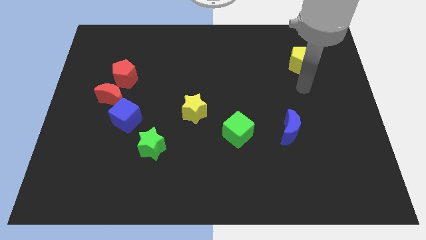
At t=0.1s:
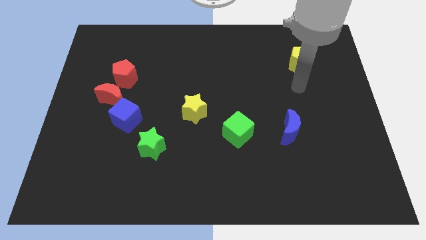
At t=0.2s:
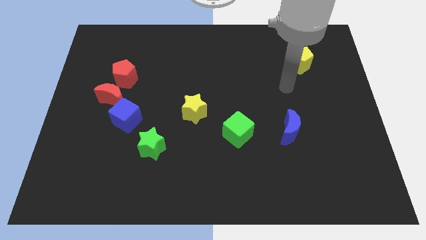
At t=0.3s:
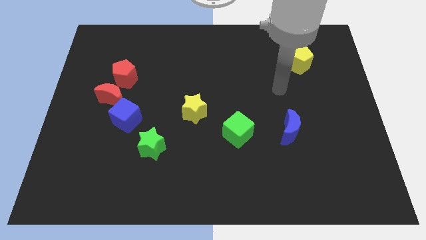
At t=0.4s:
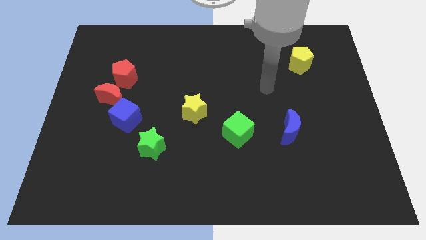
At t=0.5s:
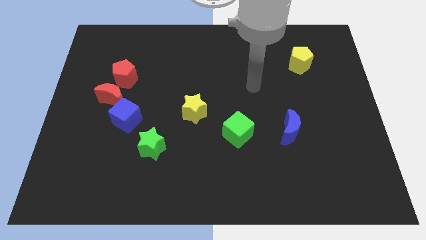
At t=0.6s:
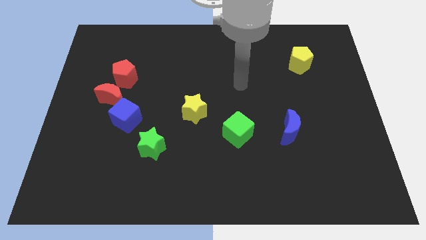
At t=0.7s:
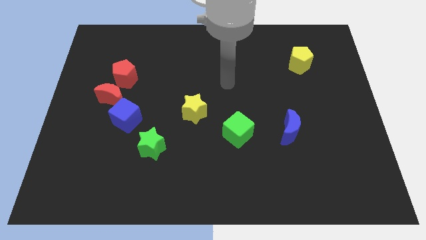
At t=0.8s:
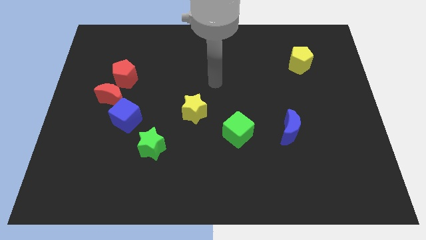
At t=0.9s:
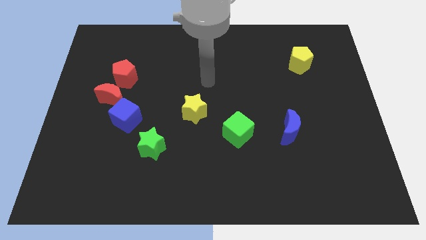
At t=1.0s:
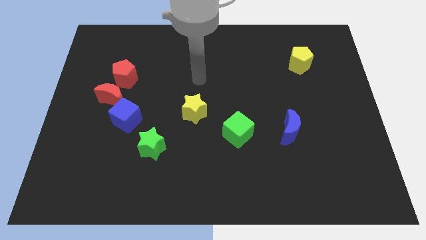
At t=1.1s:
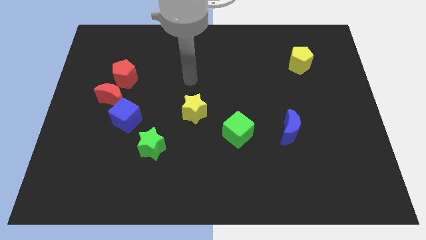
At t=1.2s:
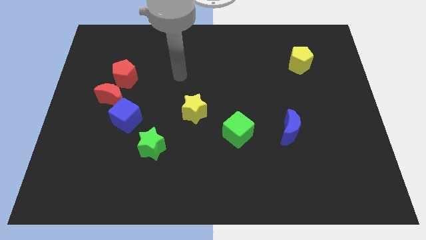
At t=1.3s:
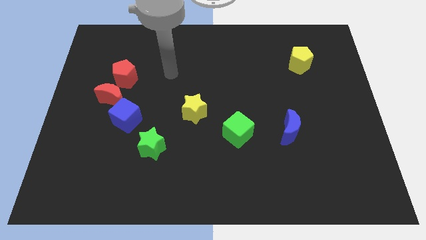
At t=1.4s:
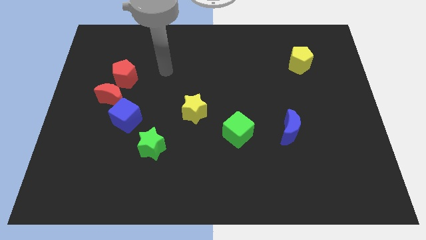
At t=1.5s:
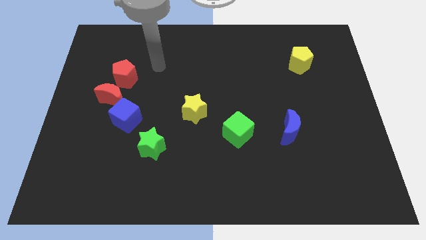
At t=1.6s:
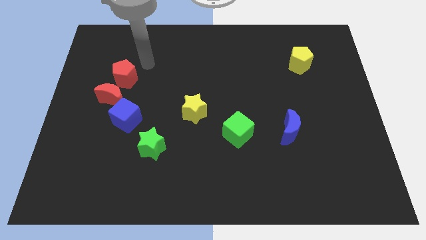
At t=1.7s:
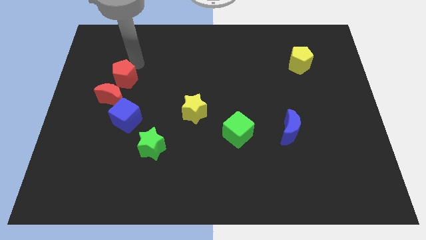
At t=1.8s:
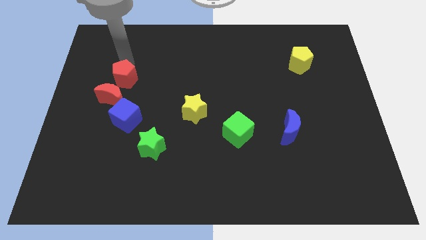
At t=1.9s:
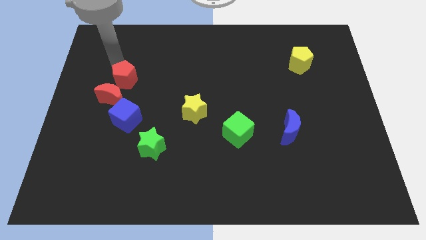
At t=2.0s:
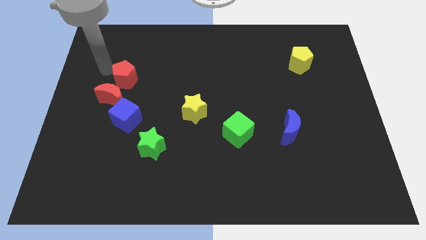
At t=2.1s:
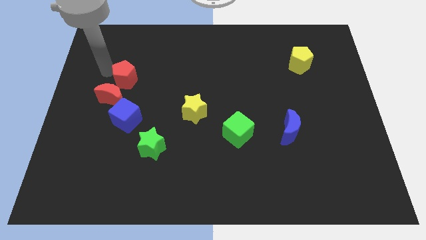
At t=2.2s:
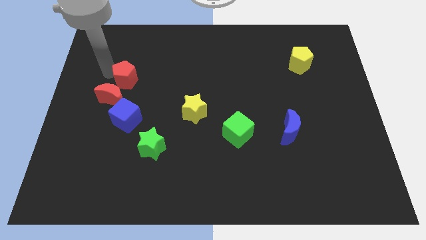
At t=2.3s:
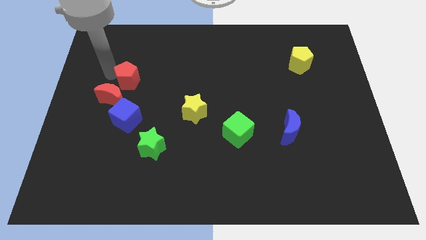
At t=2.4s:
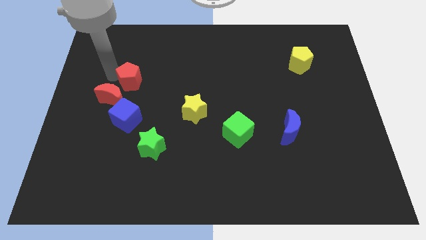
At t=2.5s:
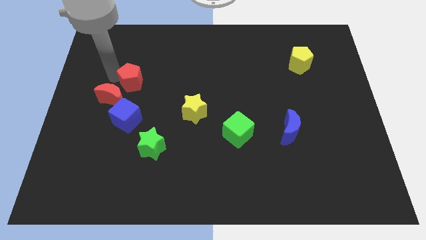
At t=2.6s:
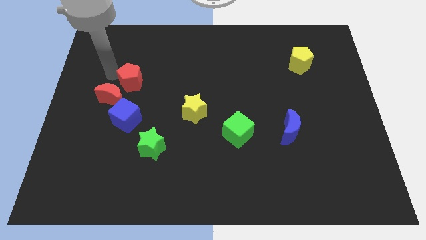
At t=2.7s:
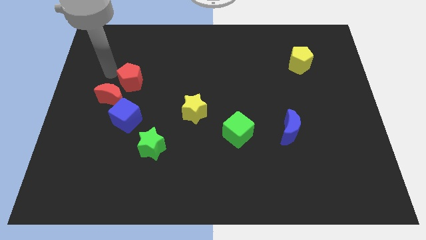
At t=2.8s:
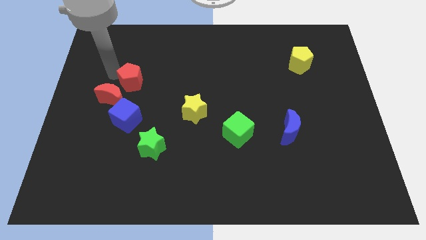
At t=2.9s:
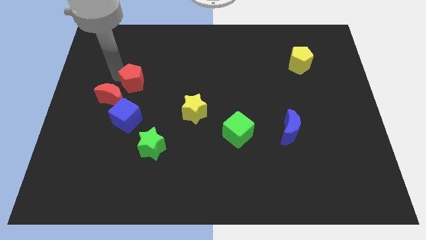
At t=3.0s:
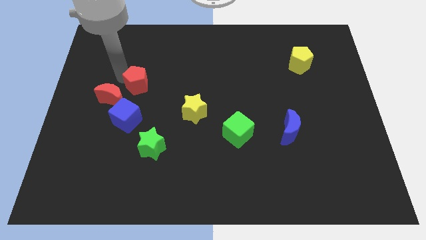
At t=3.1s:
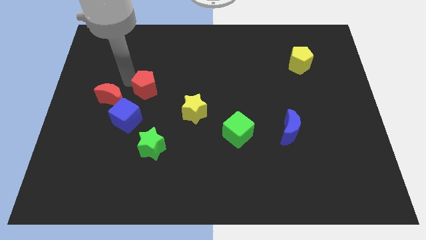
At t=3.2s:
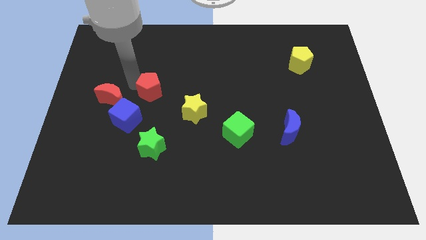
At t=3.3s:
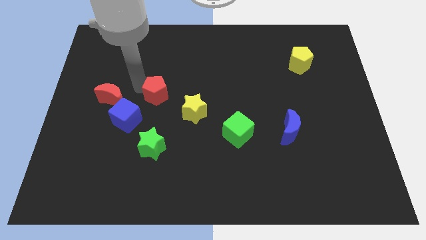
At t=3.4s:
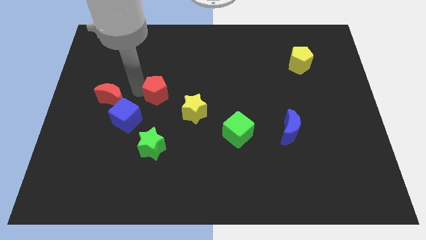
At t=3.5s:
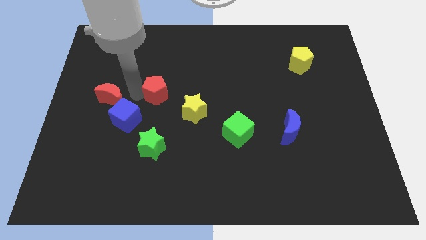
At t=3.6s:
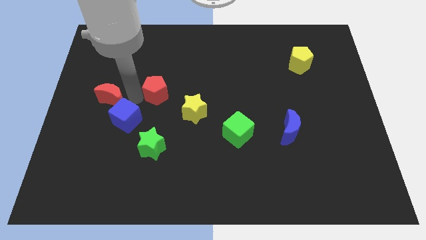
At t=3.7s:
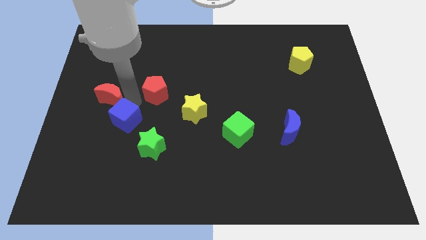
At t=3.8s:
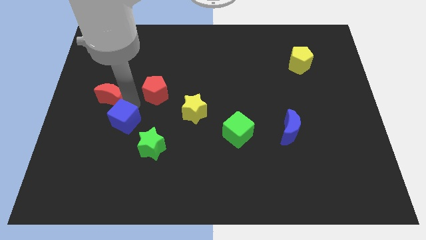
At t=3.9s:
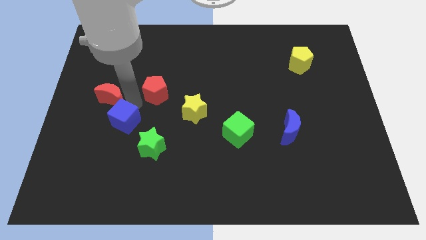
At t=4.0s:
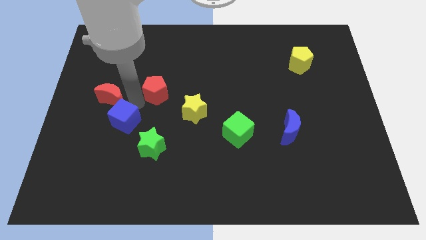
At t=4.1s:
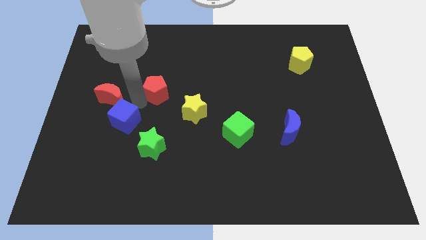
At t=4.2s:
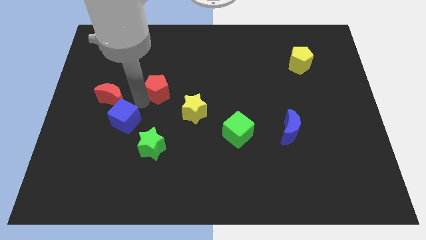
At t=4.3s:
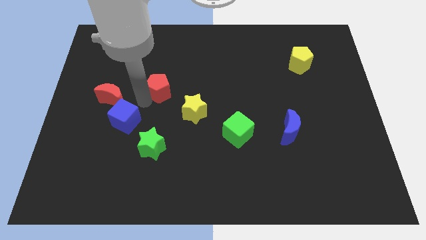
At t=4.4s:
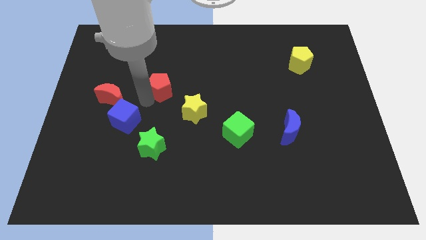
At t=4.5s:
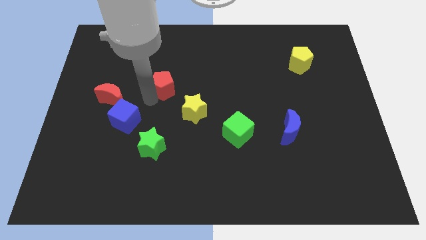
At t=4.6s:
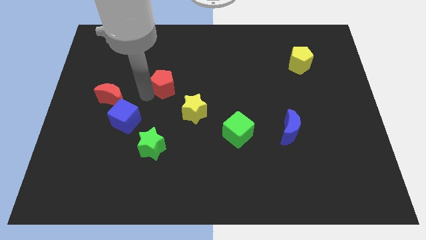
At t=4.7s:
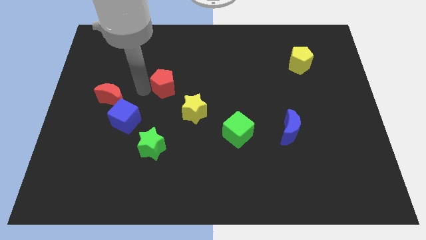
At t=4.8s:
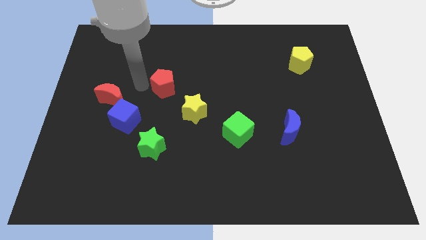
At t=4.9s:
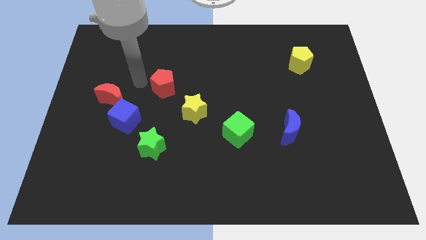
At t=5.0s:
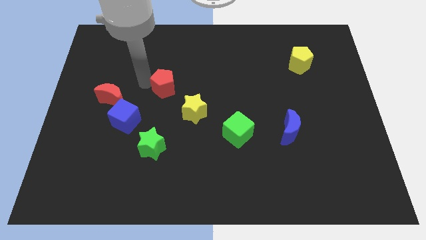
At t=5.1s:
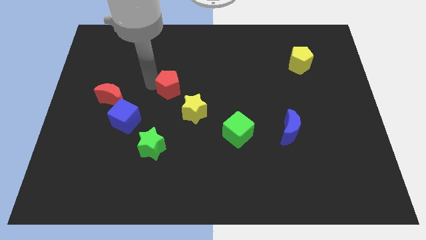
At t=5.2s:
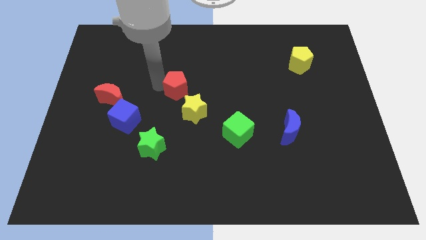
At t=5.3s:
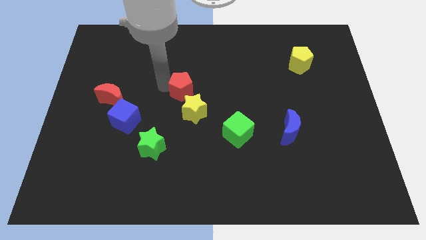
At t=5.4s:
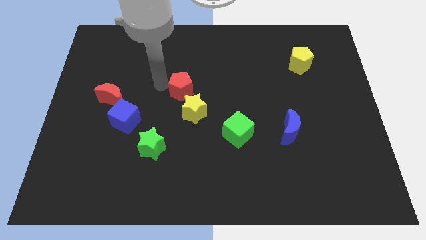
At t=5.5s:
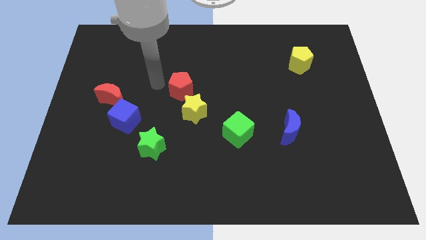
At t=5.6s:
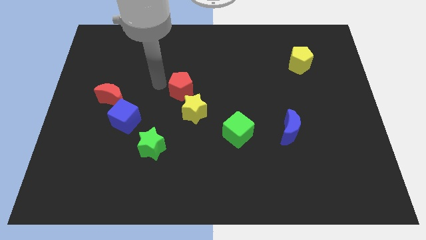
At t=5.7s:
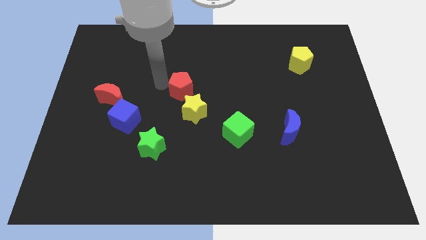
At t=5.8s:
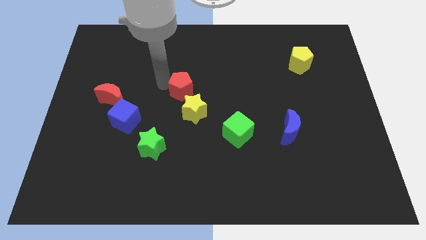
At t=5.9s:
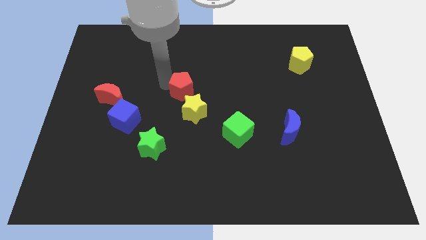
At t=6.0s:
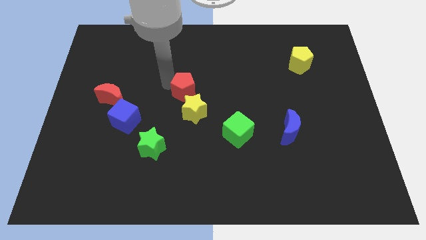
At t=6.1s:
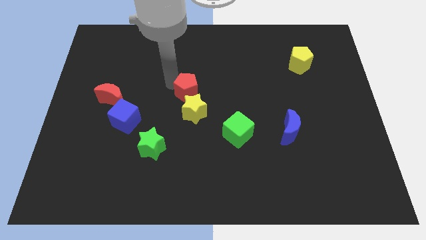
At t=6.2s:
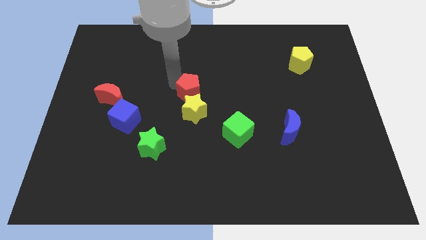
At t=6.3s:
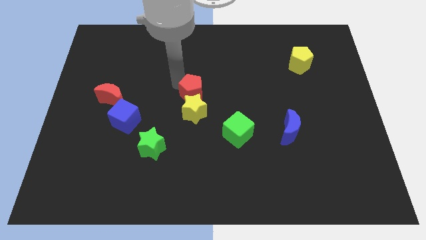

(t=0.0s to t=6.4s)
put the red pentagon diagonally up and to the right of the yellow star
